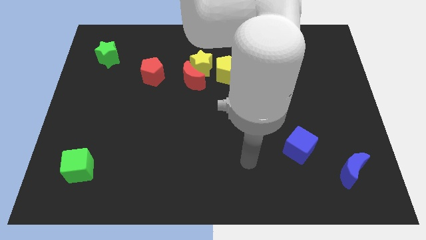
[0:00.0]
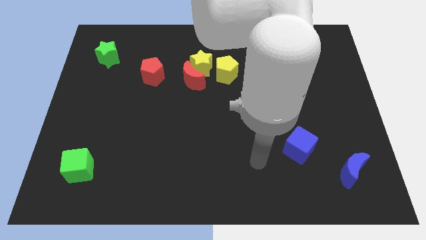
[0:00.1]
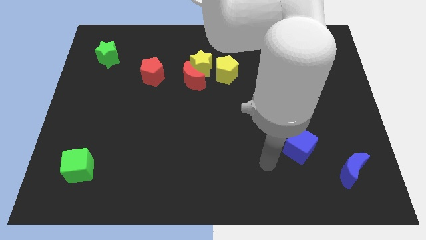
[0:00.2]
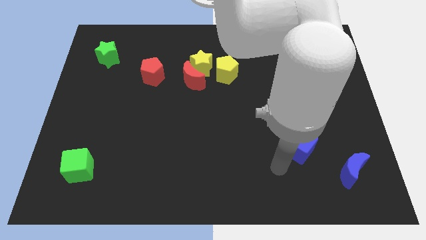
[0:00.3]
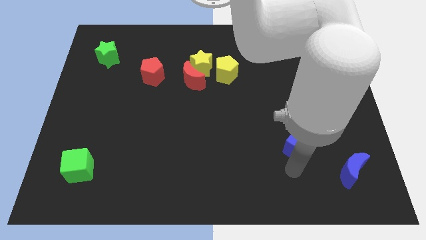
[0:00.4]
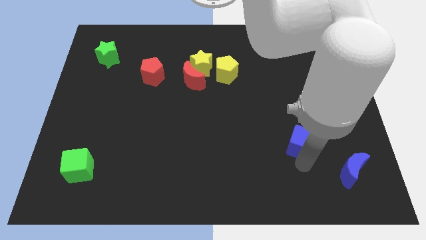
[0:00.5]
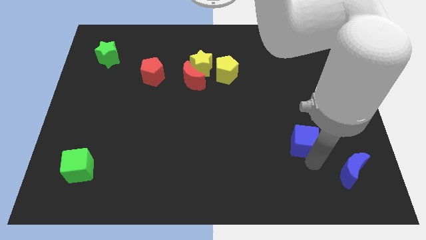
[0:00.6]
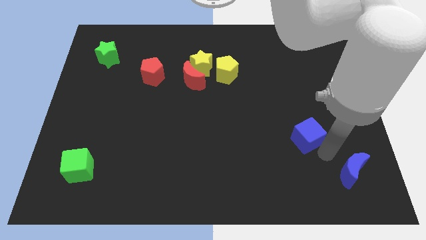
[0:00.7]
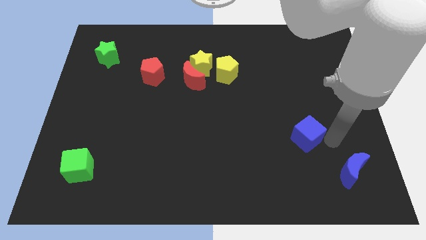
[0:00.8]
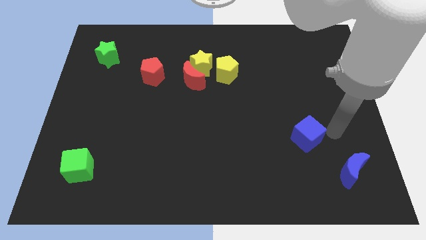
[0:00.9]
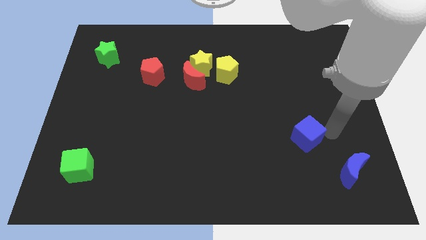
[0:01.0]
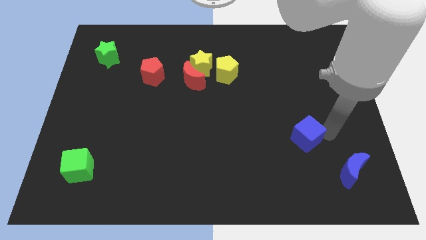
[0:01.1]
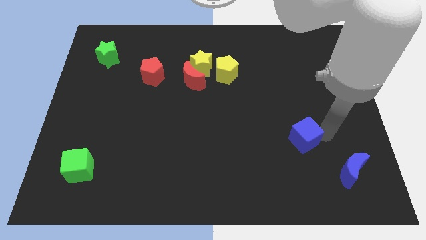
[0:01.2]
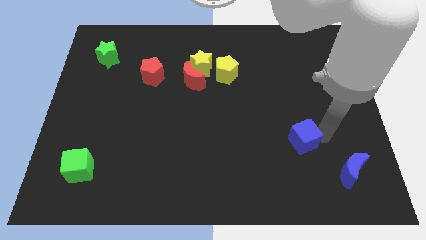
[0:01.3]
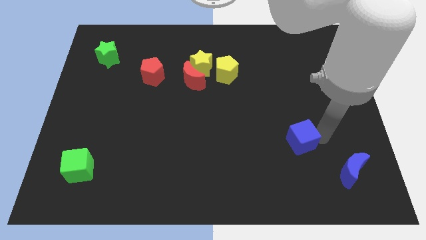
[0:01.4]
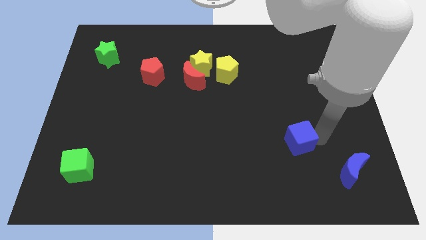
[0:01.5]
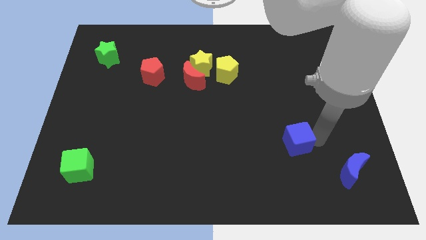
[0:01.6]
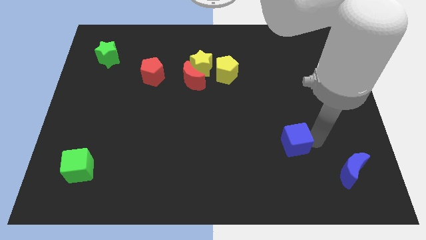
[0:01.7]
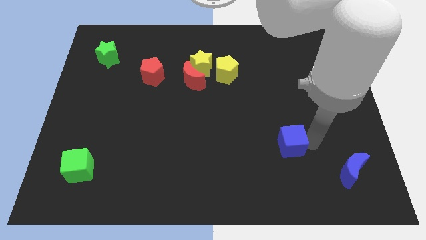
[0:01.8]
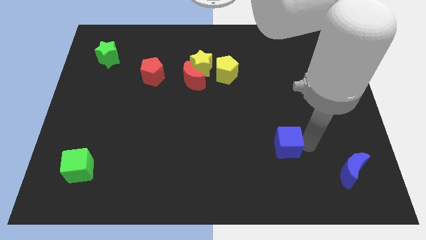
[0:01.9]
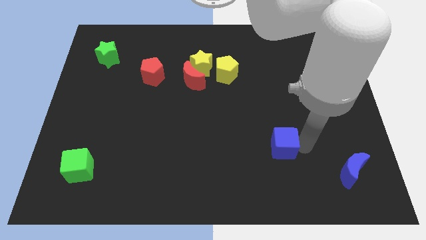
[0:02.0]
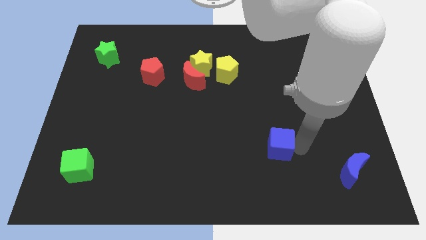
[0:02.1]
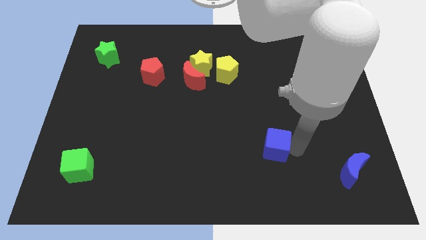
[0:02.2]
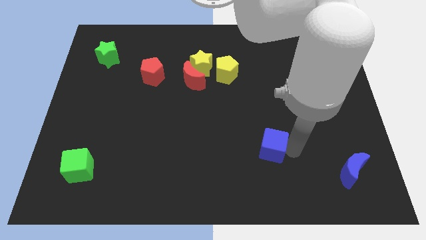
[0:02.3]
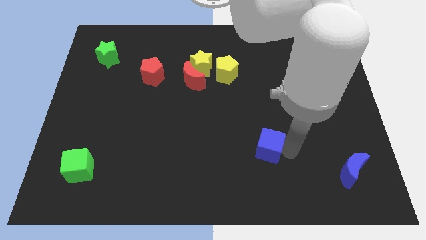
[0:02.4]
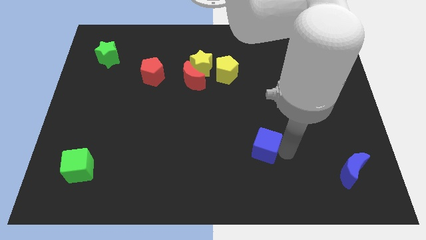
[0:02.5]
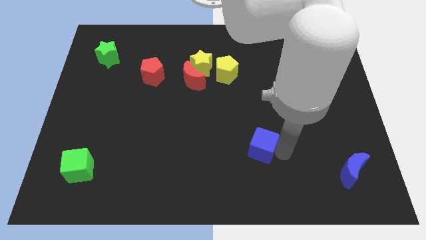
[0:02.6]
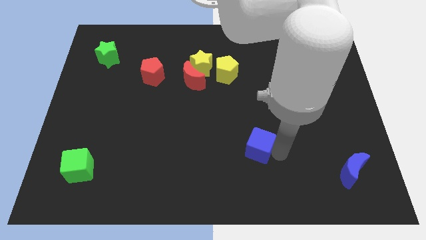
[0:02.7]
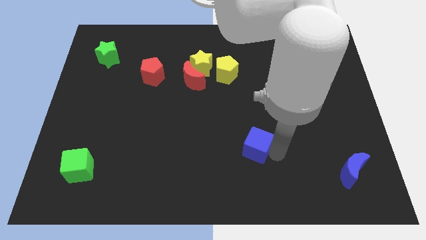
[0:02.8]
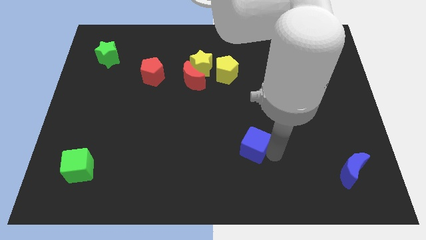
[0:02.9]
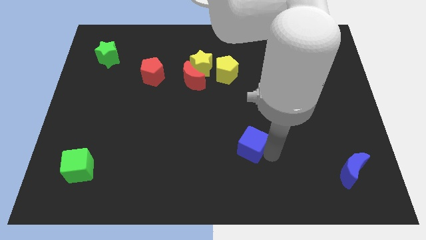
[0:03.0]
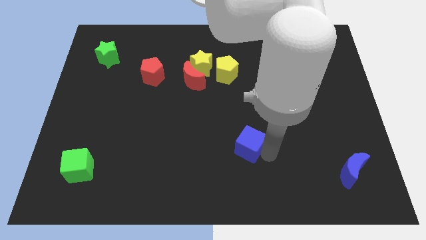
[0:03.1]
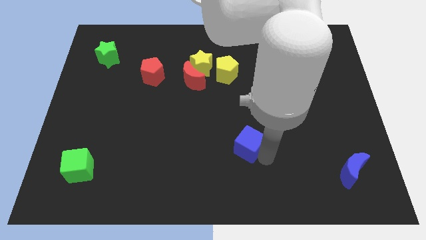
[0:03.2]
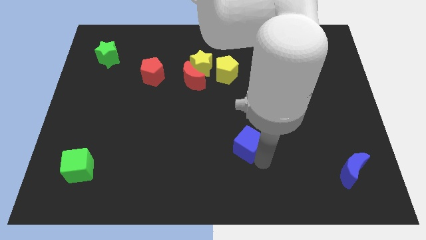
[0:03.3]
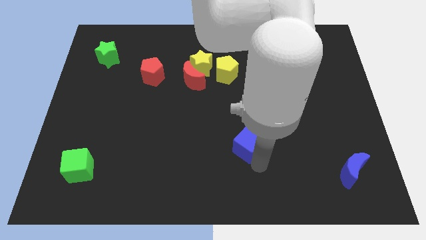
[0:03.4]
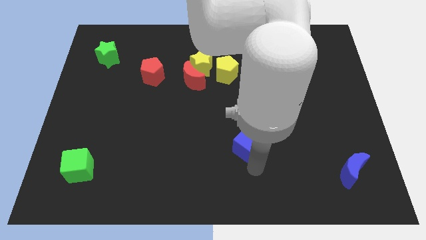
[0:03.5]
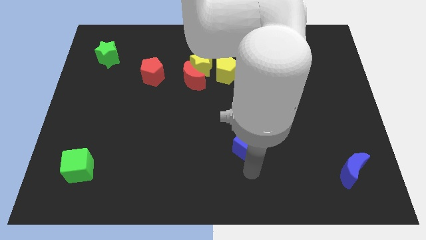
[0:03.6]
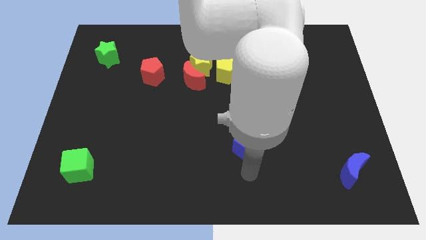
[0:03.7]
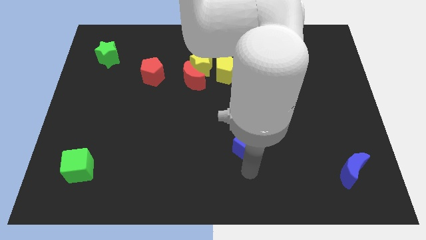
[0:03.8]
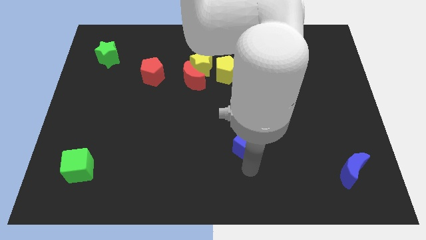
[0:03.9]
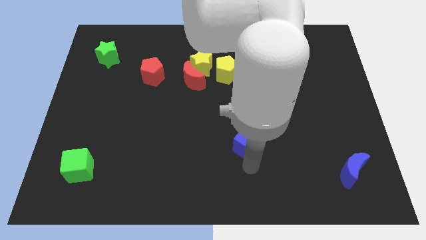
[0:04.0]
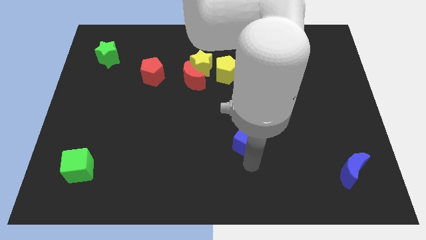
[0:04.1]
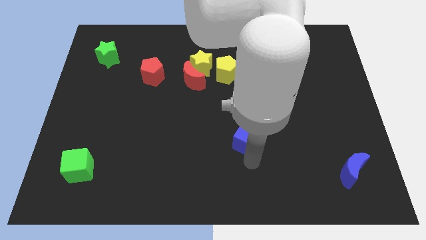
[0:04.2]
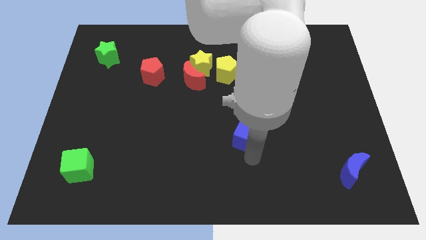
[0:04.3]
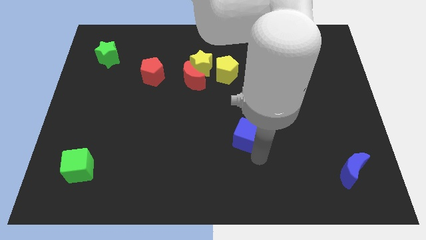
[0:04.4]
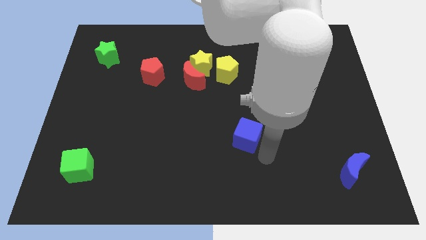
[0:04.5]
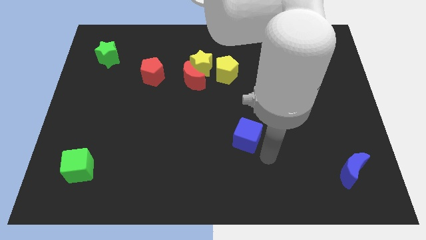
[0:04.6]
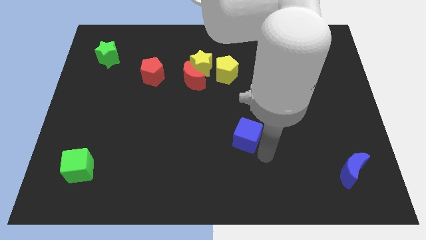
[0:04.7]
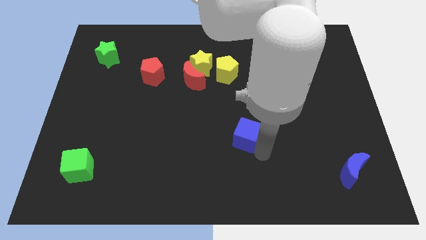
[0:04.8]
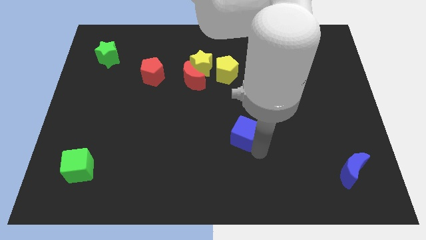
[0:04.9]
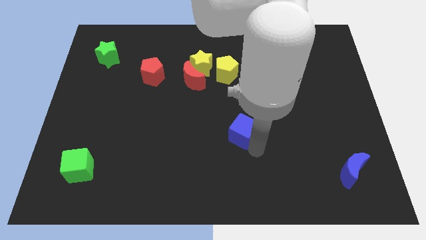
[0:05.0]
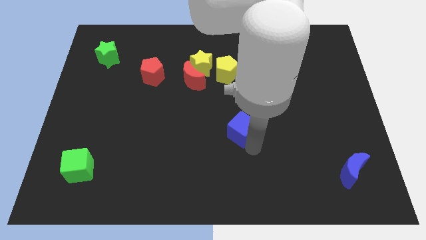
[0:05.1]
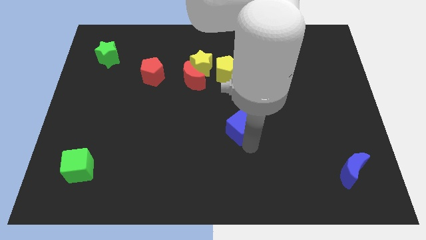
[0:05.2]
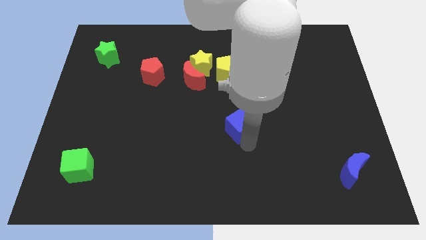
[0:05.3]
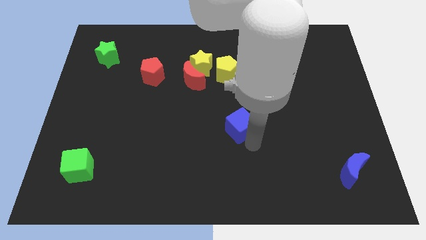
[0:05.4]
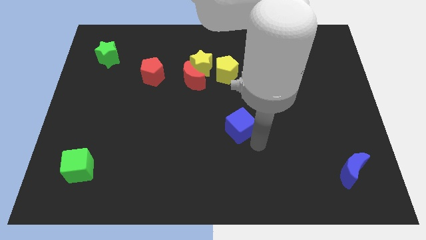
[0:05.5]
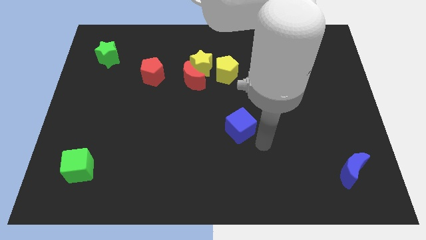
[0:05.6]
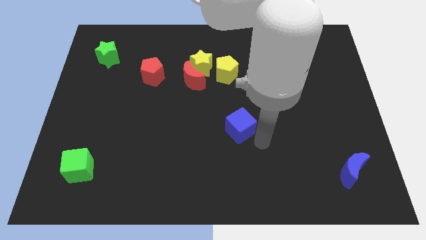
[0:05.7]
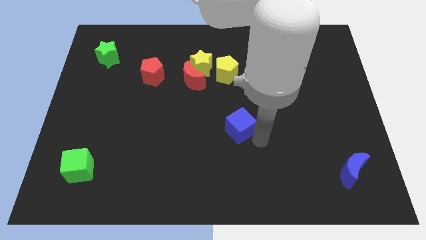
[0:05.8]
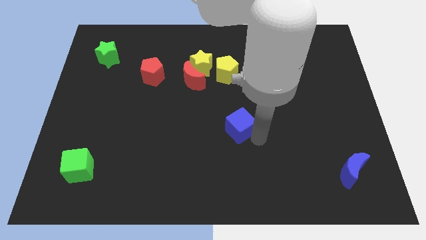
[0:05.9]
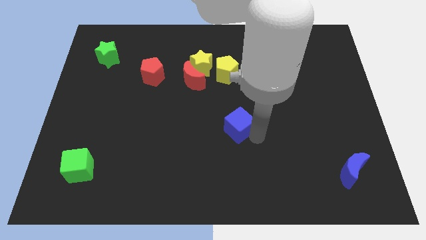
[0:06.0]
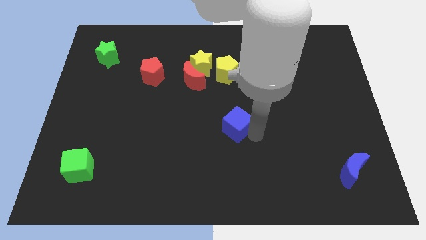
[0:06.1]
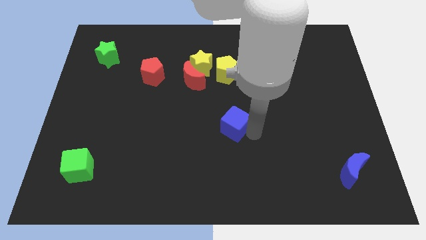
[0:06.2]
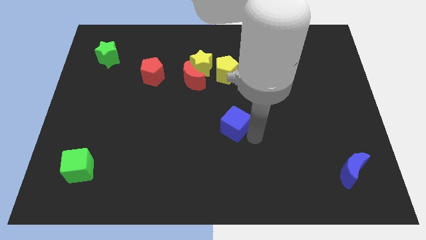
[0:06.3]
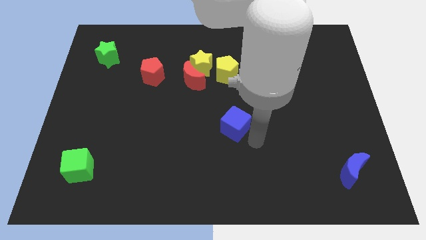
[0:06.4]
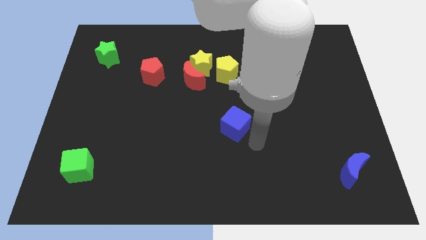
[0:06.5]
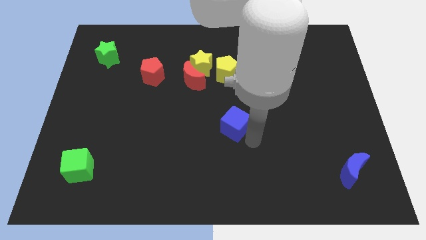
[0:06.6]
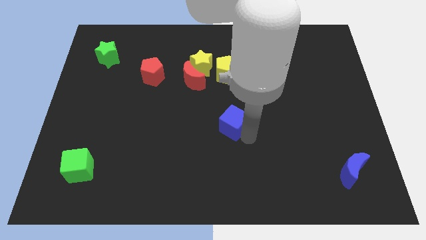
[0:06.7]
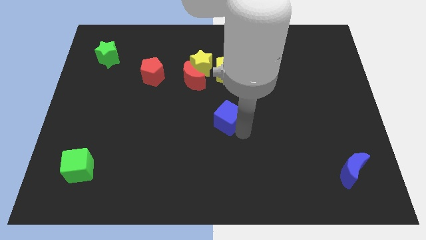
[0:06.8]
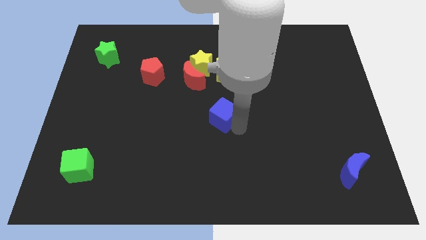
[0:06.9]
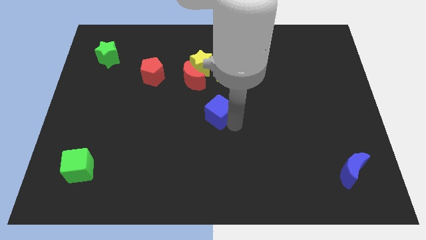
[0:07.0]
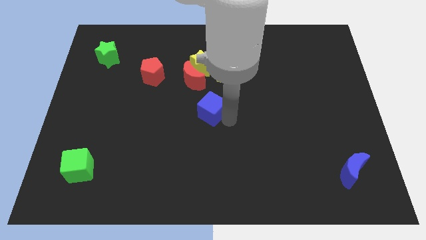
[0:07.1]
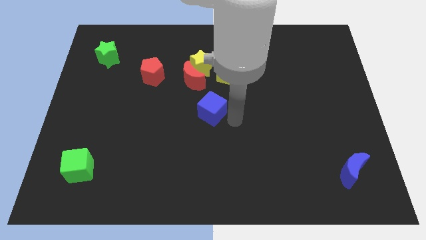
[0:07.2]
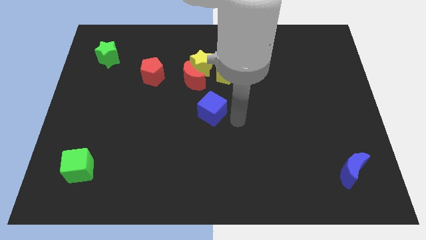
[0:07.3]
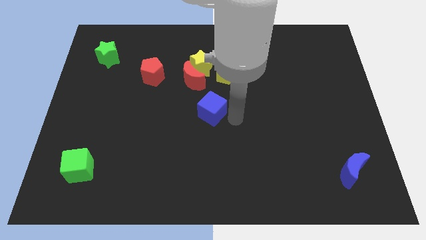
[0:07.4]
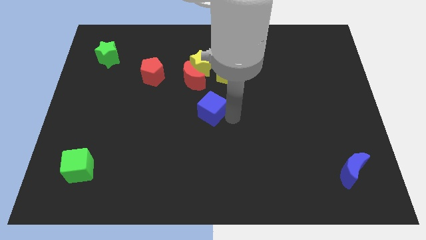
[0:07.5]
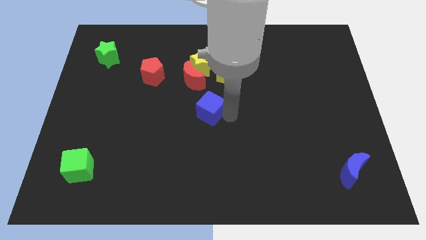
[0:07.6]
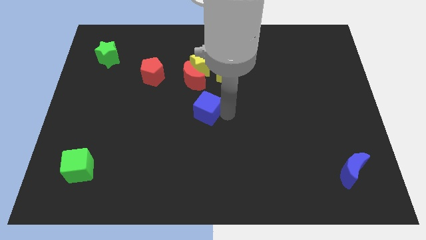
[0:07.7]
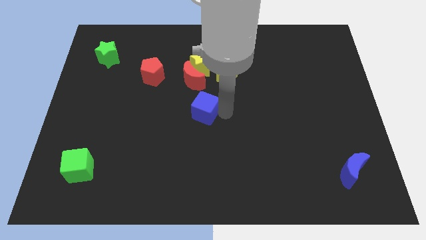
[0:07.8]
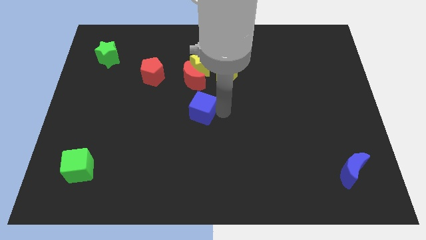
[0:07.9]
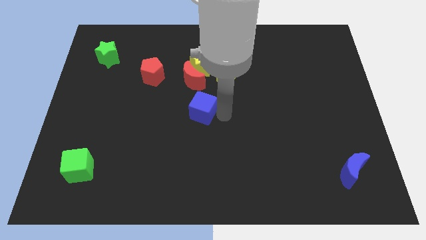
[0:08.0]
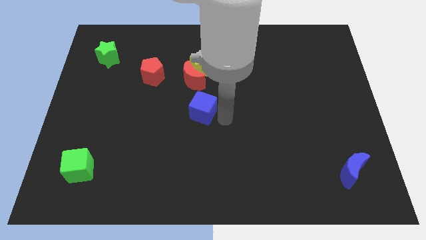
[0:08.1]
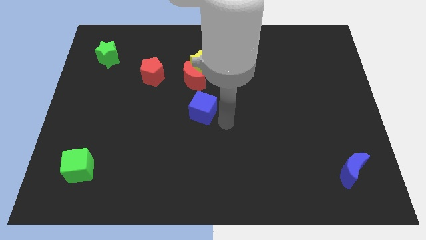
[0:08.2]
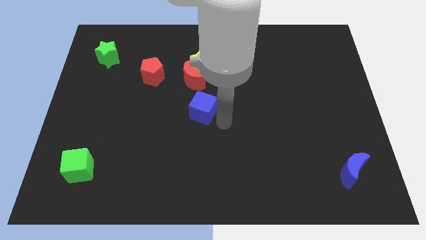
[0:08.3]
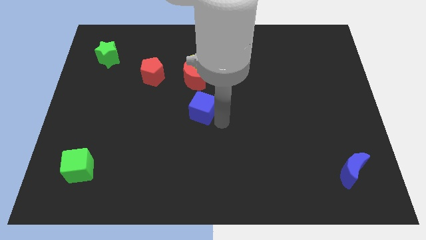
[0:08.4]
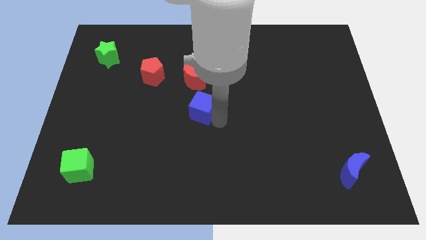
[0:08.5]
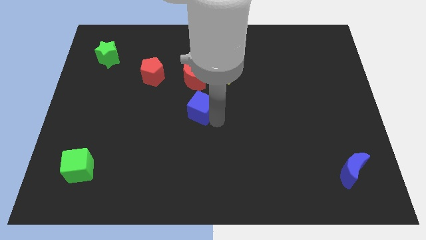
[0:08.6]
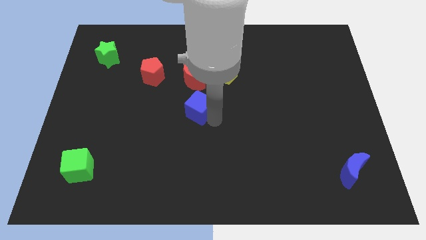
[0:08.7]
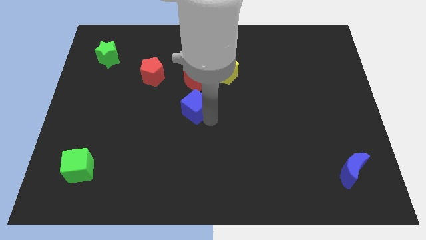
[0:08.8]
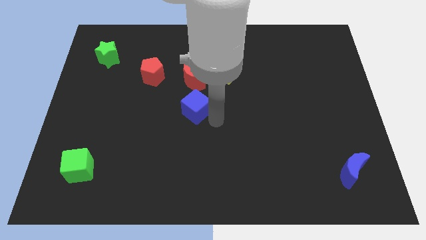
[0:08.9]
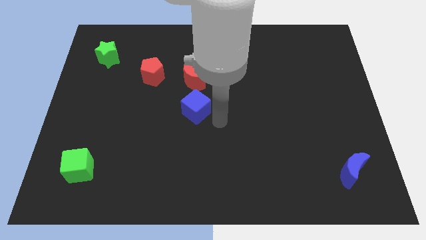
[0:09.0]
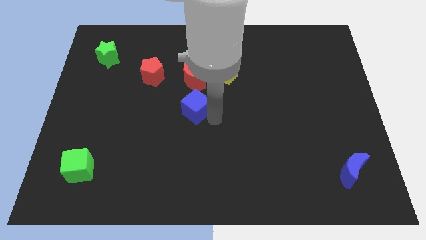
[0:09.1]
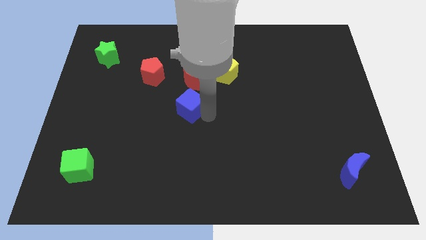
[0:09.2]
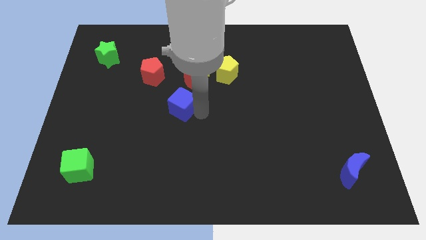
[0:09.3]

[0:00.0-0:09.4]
put the blue cube diagonally down and to the left of the red moon
